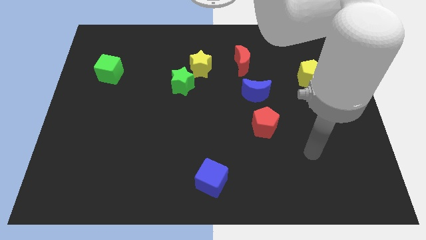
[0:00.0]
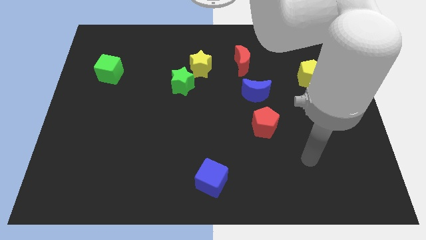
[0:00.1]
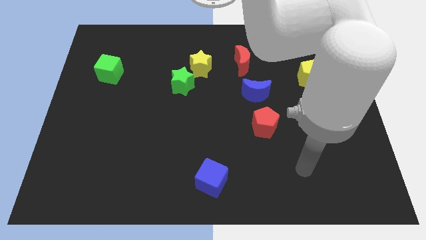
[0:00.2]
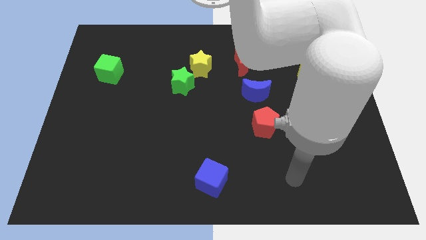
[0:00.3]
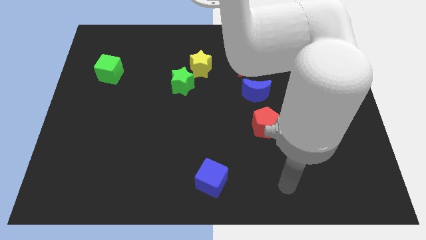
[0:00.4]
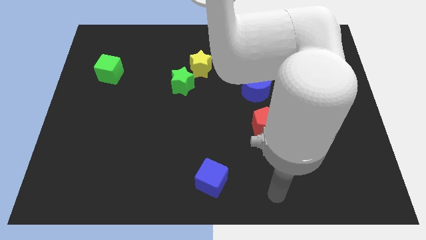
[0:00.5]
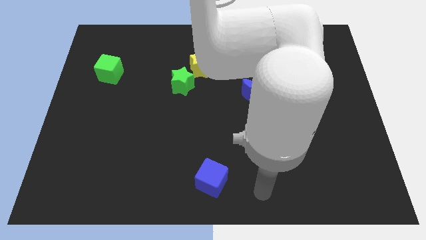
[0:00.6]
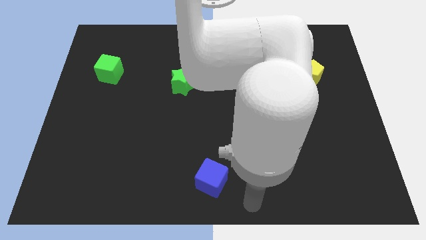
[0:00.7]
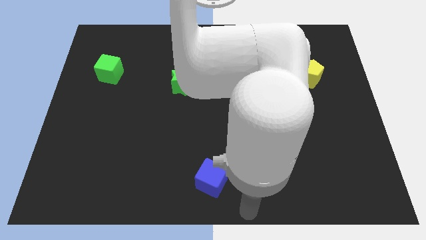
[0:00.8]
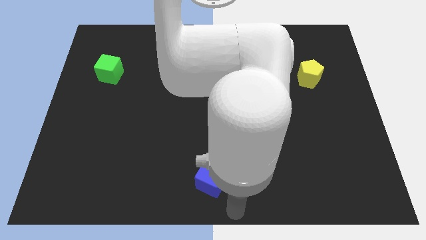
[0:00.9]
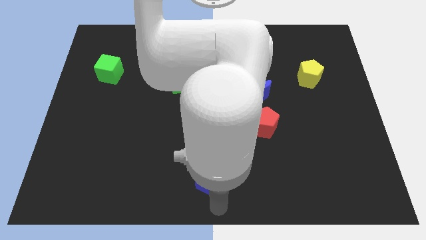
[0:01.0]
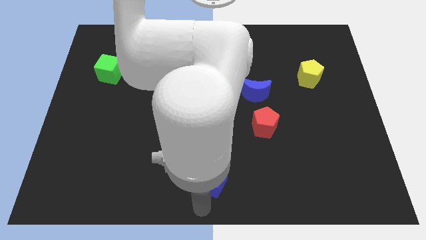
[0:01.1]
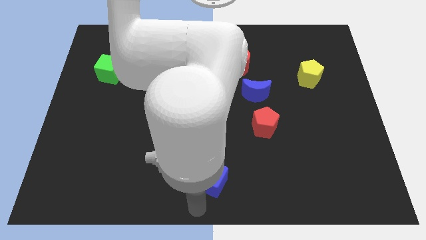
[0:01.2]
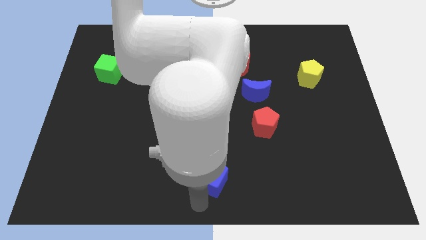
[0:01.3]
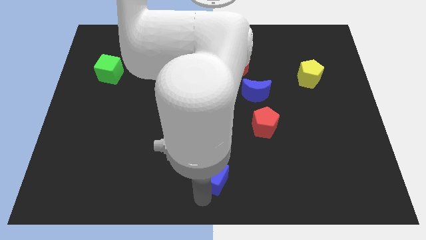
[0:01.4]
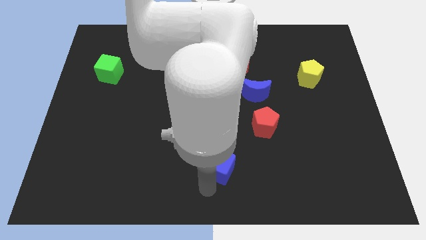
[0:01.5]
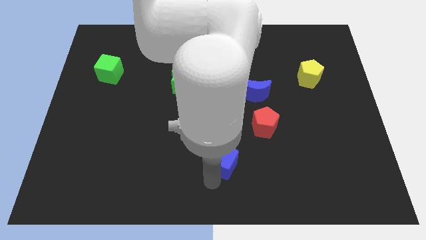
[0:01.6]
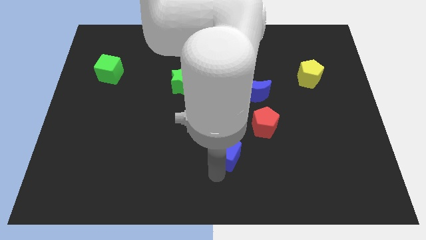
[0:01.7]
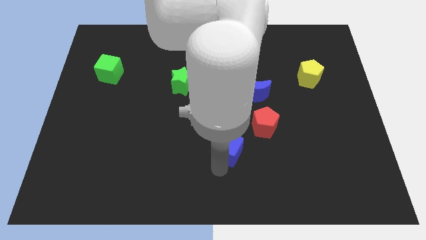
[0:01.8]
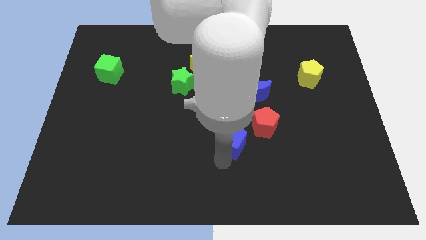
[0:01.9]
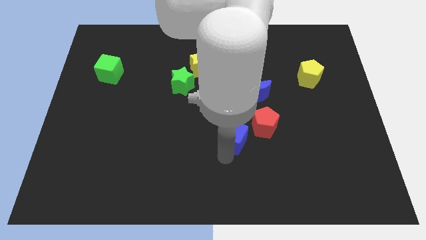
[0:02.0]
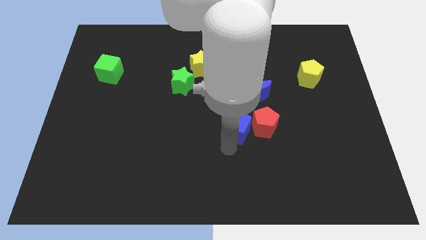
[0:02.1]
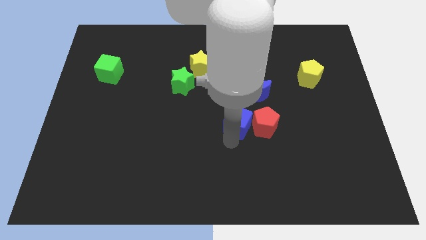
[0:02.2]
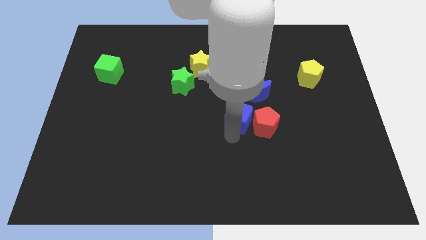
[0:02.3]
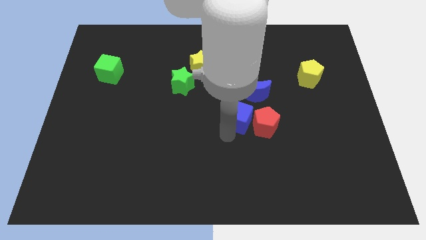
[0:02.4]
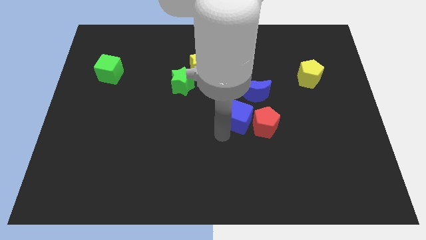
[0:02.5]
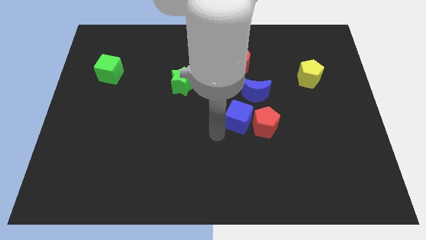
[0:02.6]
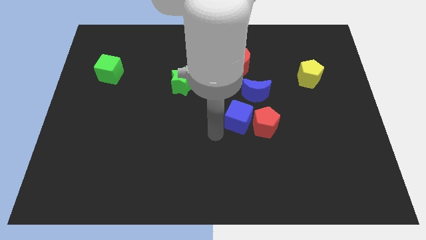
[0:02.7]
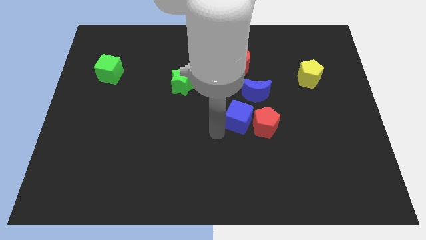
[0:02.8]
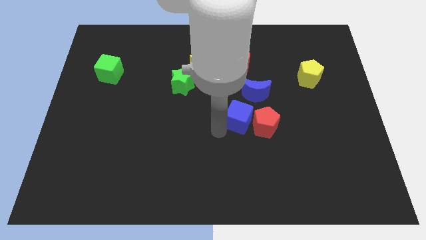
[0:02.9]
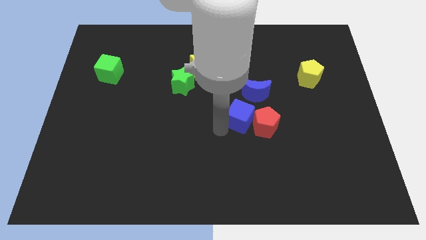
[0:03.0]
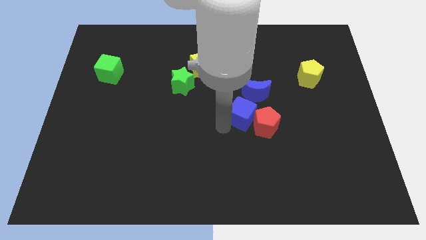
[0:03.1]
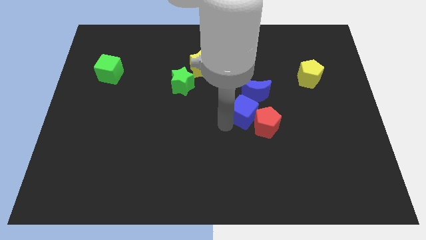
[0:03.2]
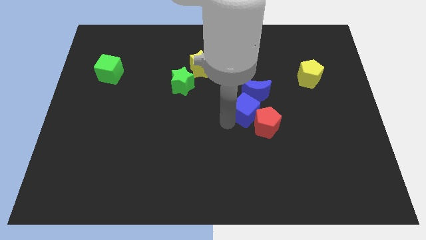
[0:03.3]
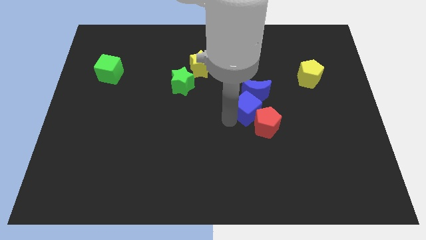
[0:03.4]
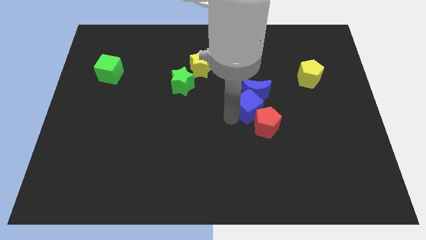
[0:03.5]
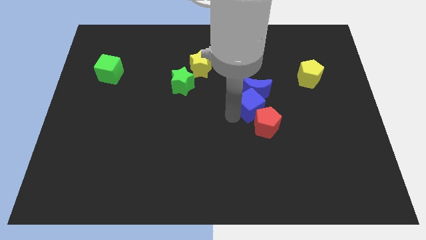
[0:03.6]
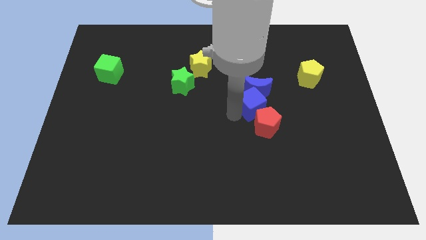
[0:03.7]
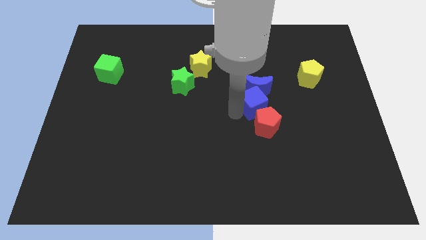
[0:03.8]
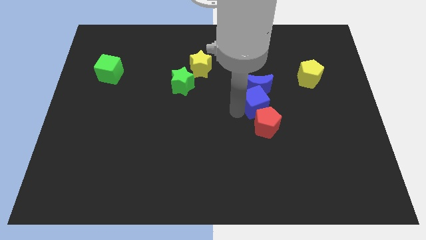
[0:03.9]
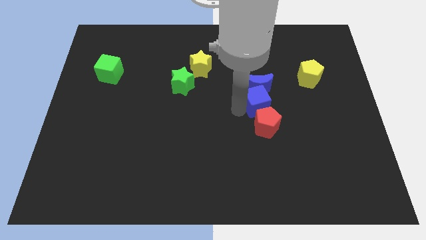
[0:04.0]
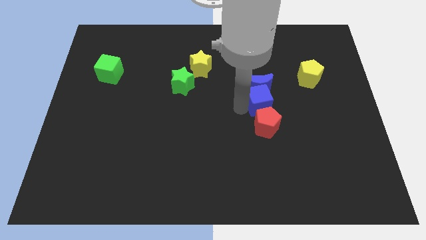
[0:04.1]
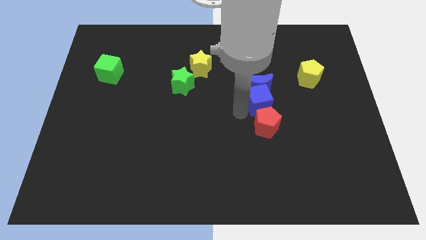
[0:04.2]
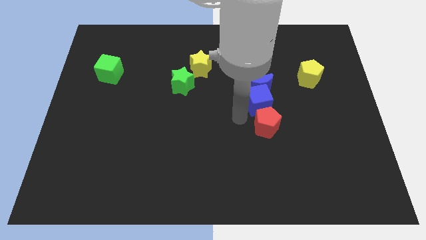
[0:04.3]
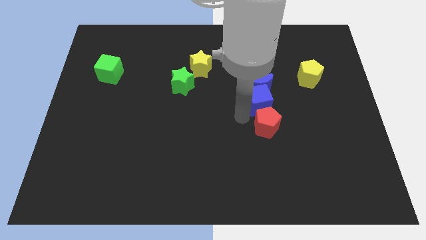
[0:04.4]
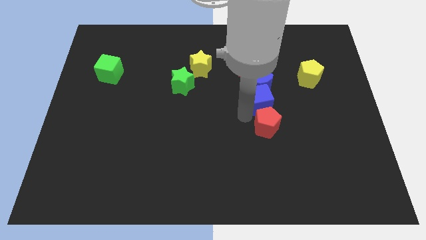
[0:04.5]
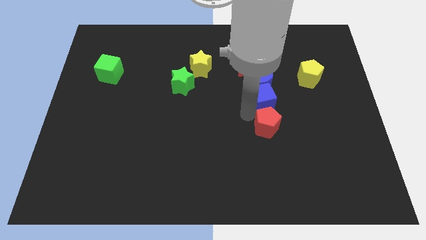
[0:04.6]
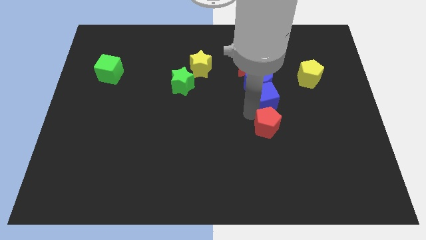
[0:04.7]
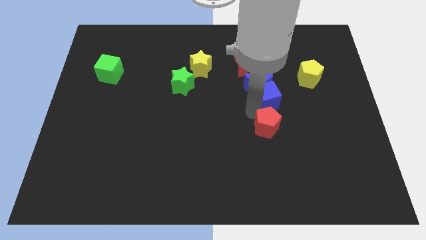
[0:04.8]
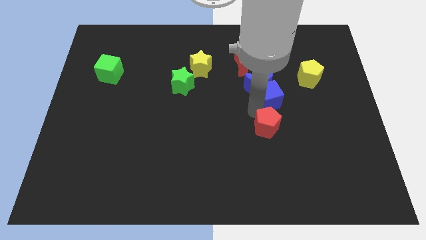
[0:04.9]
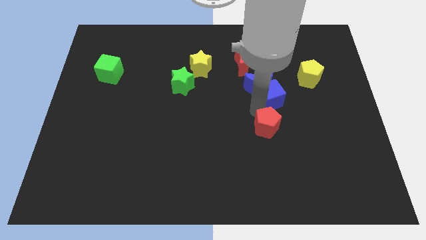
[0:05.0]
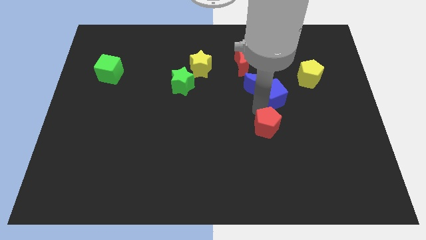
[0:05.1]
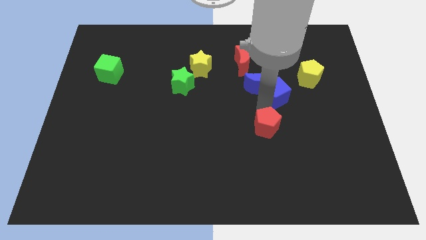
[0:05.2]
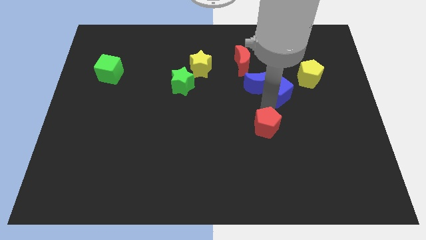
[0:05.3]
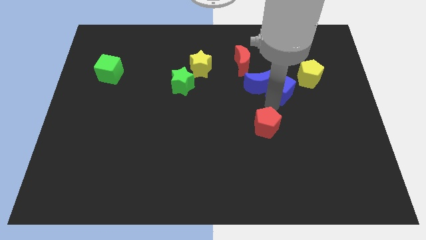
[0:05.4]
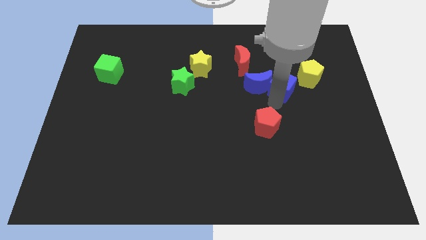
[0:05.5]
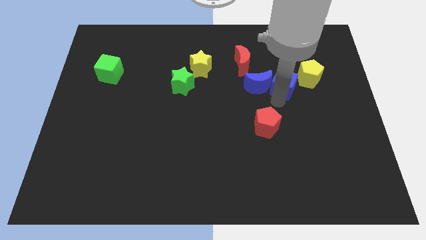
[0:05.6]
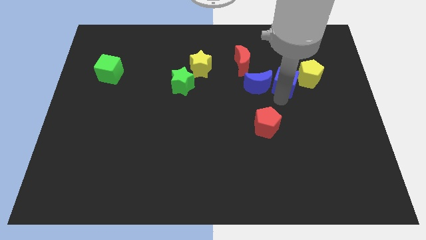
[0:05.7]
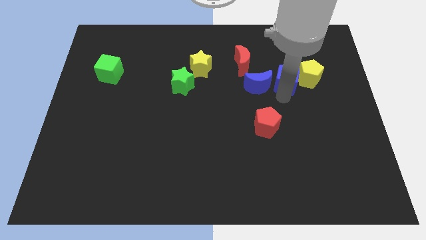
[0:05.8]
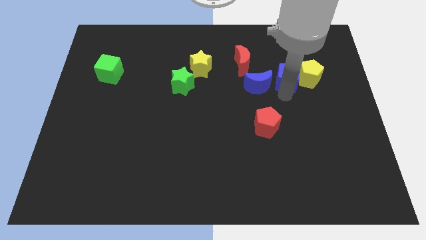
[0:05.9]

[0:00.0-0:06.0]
put the blue cube to the top left of the yellow pentagon

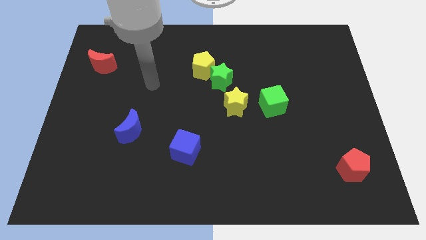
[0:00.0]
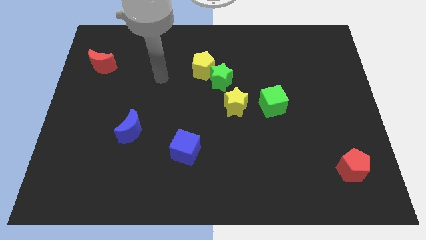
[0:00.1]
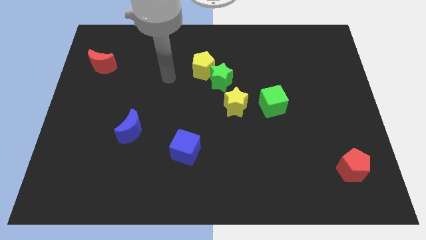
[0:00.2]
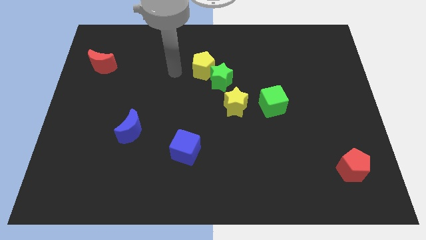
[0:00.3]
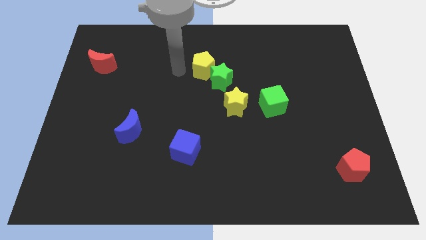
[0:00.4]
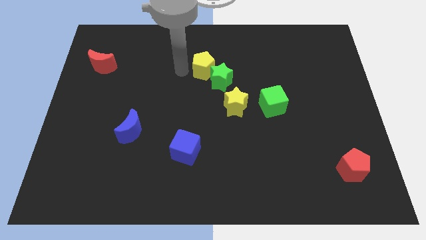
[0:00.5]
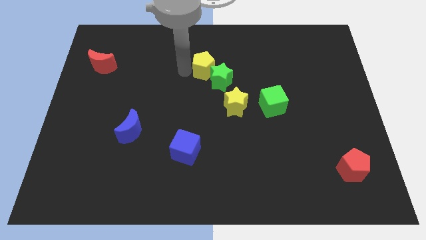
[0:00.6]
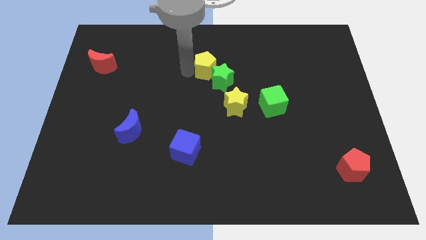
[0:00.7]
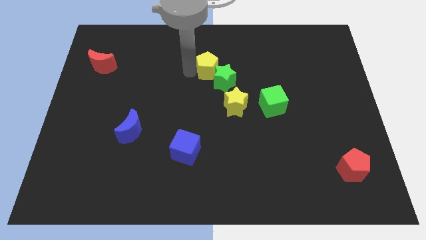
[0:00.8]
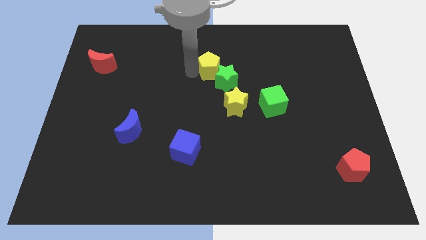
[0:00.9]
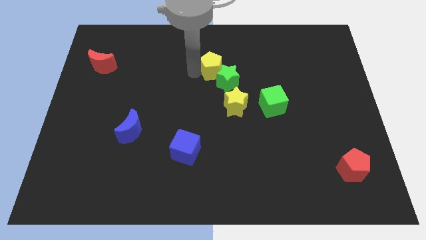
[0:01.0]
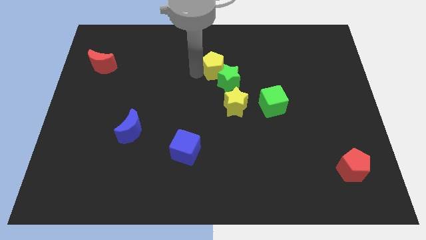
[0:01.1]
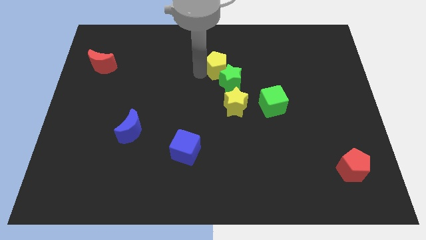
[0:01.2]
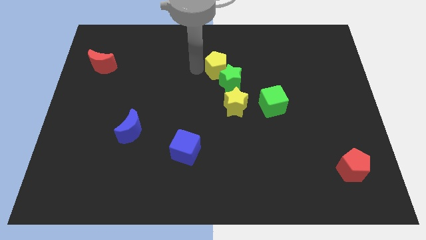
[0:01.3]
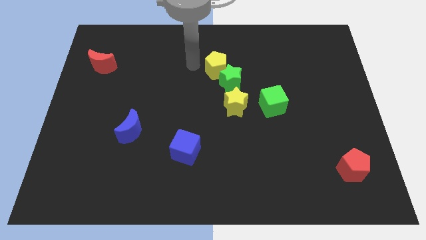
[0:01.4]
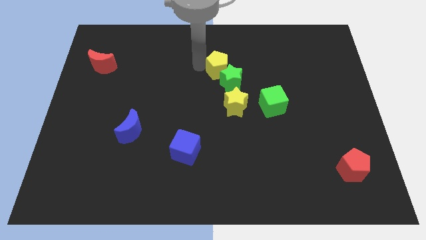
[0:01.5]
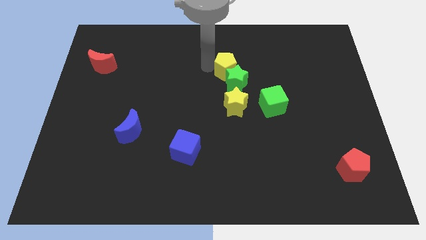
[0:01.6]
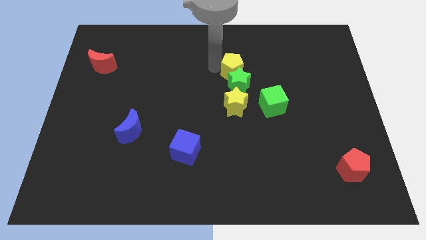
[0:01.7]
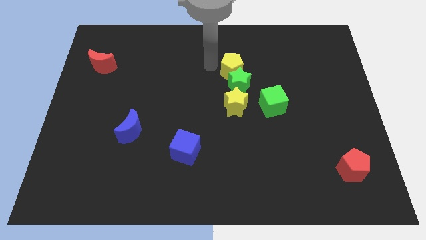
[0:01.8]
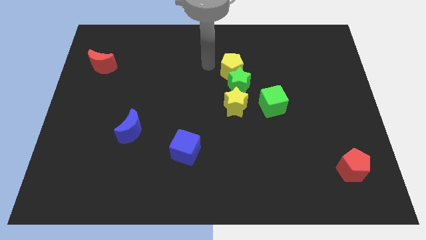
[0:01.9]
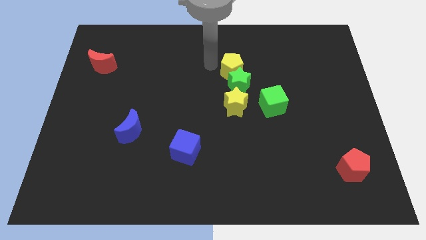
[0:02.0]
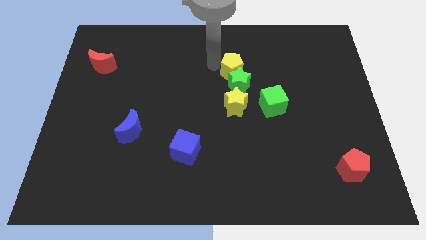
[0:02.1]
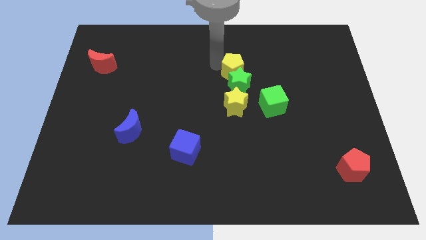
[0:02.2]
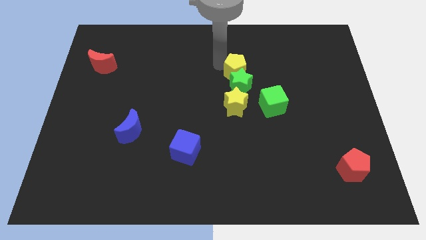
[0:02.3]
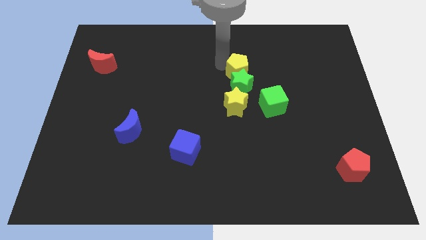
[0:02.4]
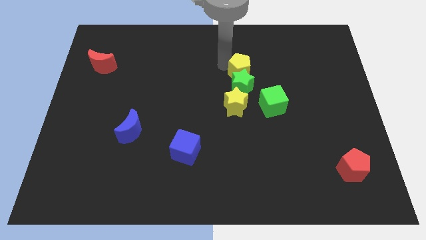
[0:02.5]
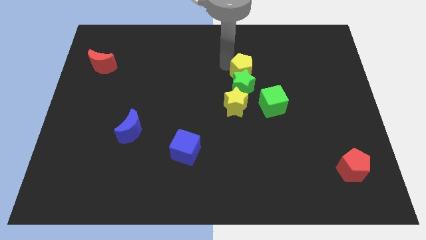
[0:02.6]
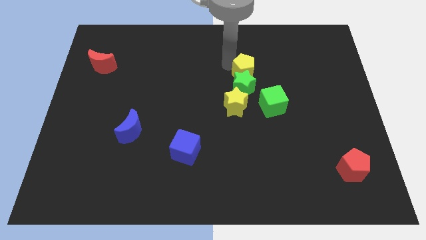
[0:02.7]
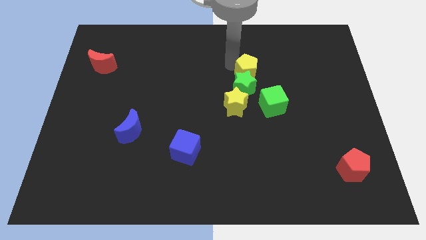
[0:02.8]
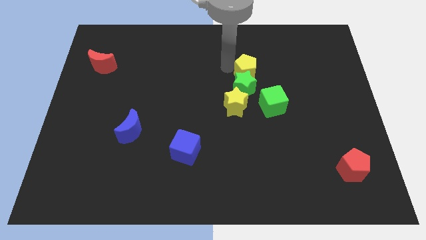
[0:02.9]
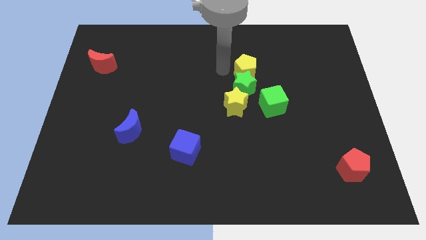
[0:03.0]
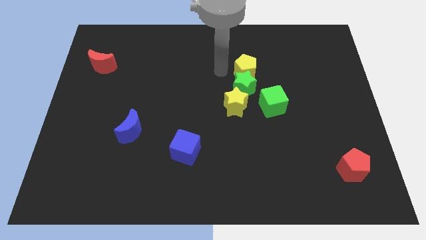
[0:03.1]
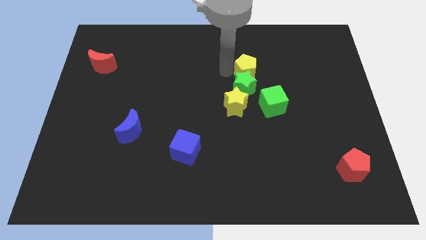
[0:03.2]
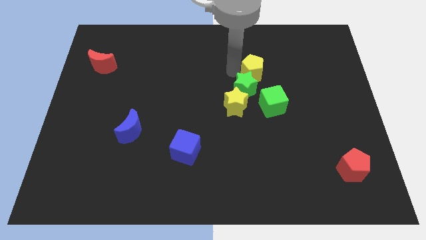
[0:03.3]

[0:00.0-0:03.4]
put the yellow pentagon to the top of the green cube
